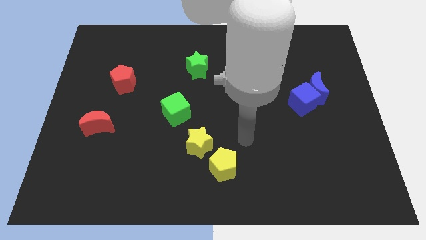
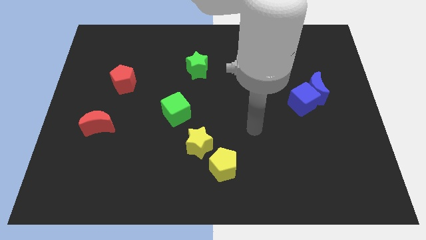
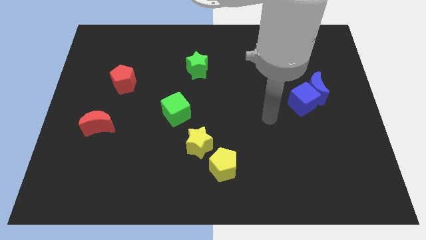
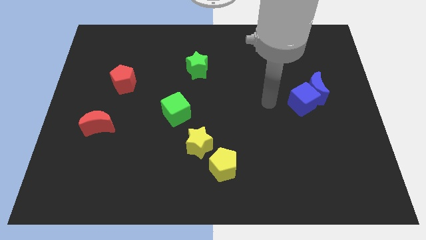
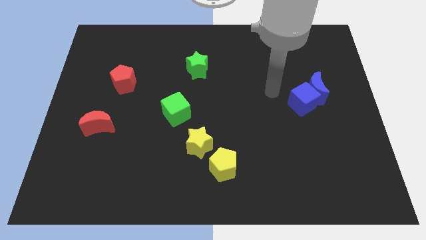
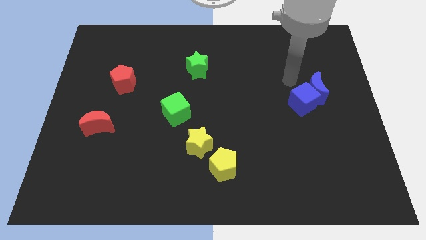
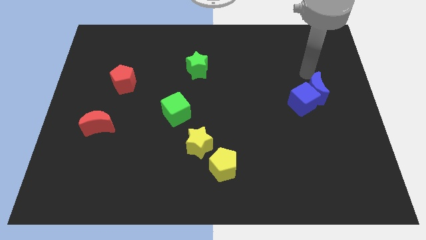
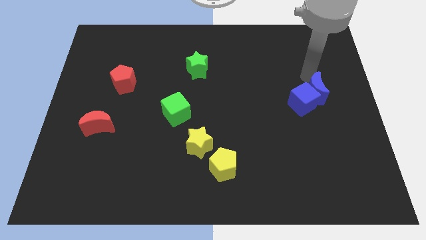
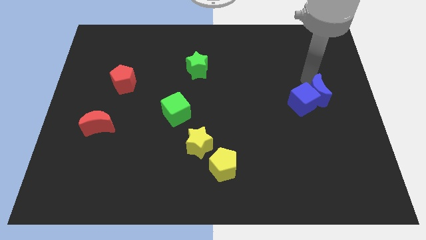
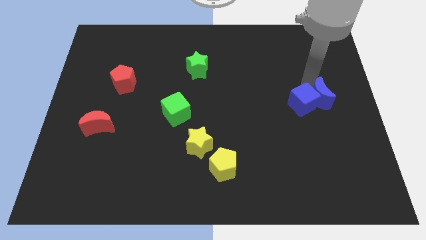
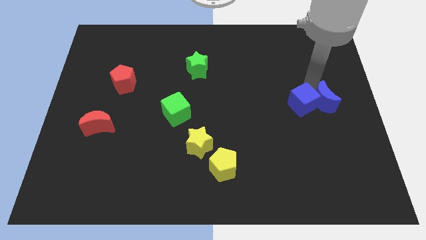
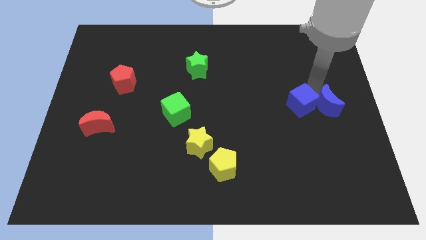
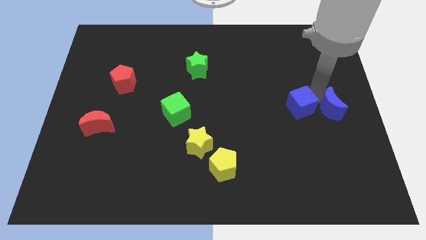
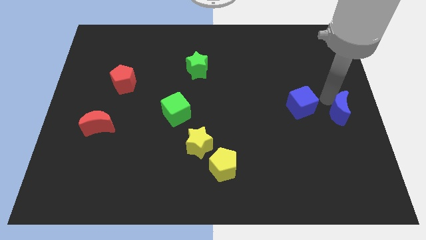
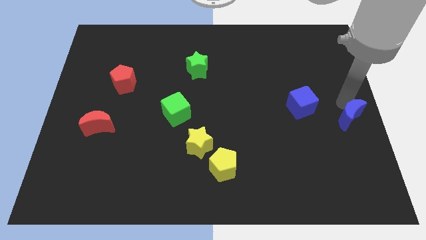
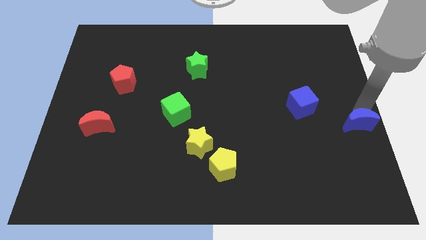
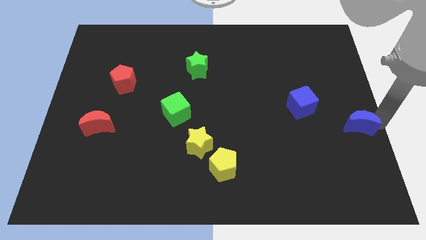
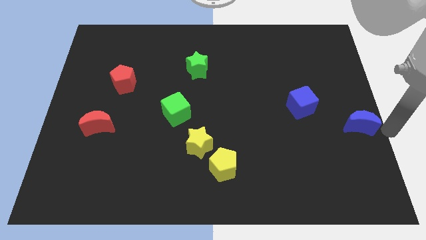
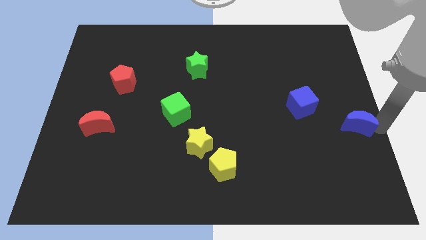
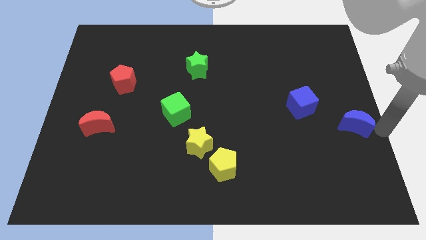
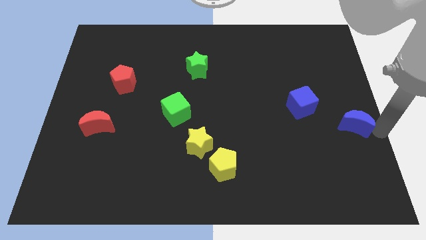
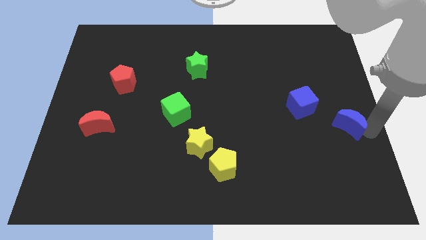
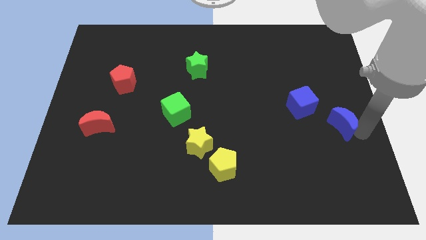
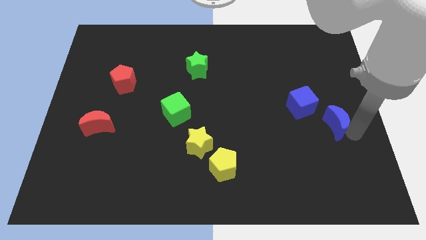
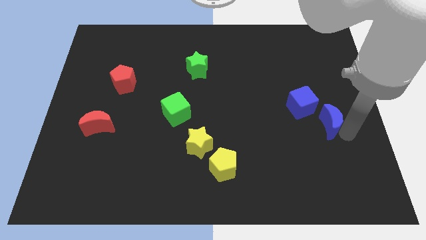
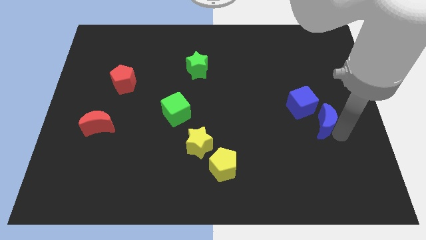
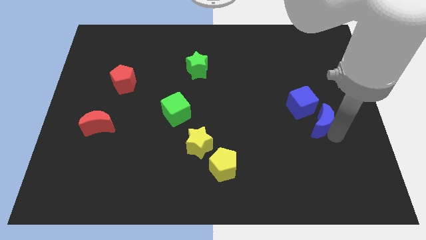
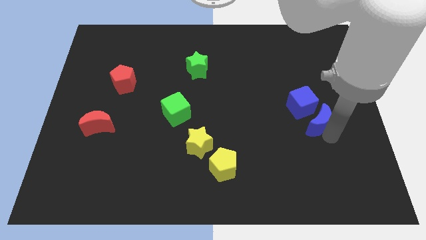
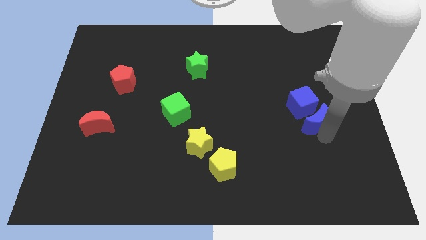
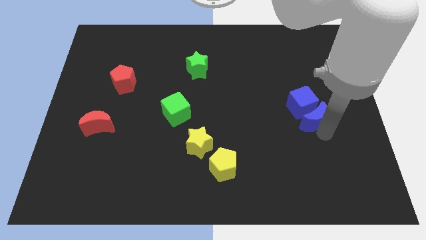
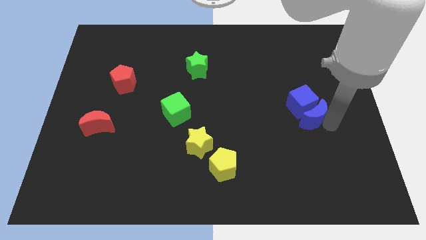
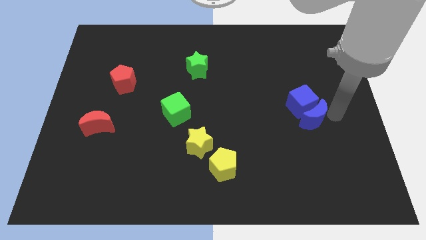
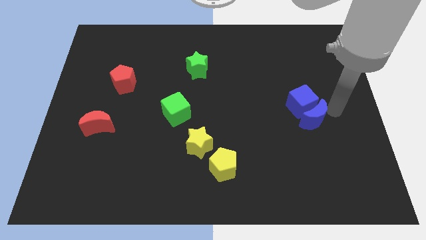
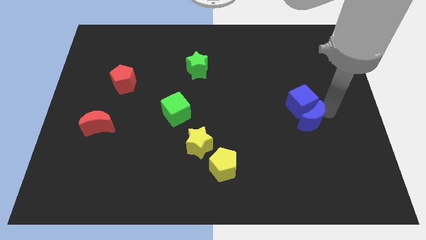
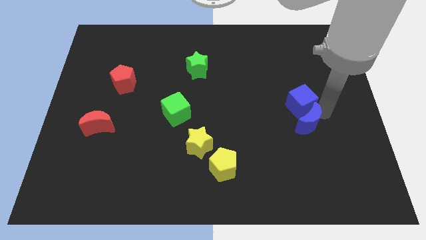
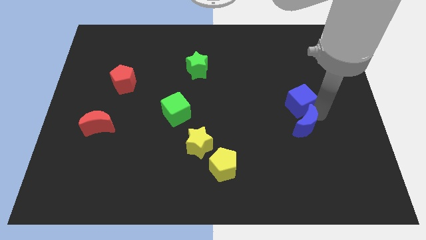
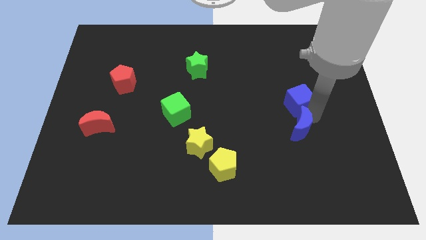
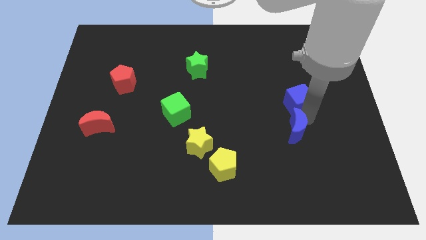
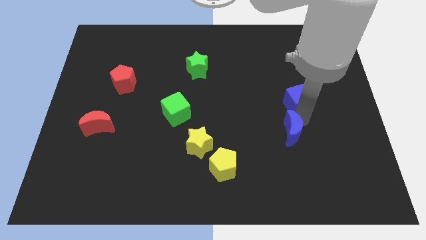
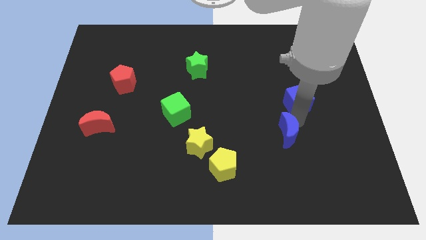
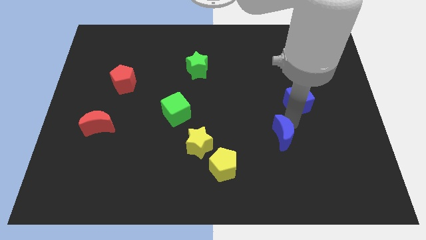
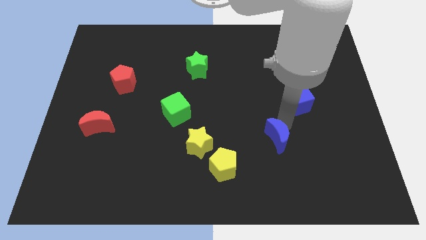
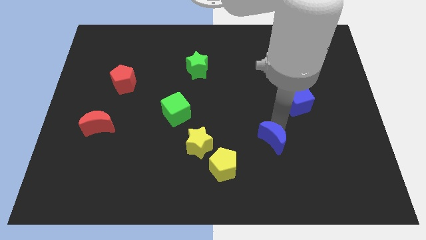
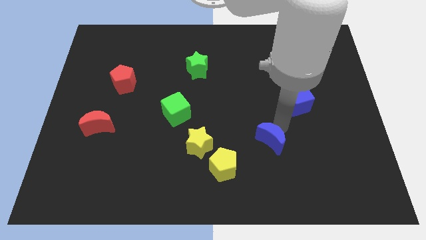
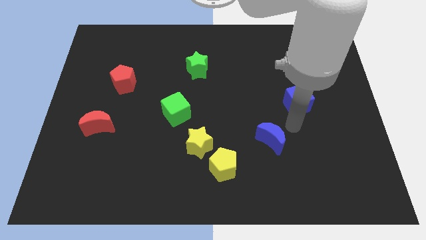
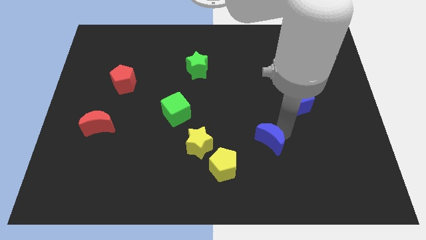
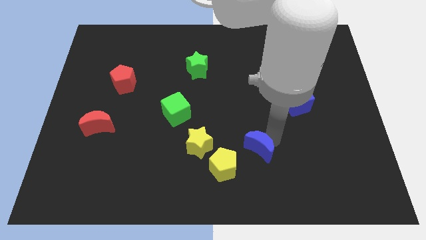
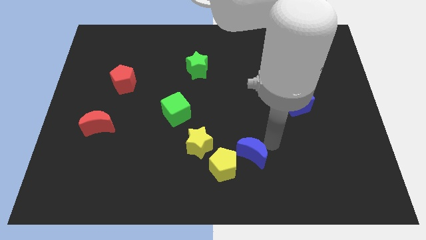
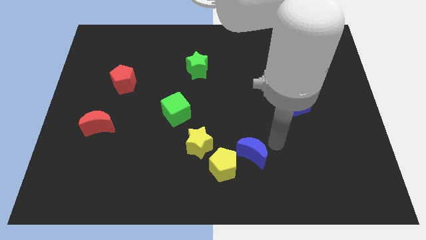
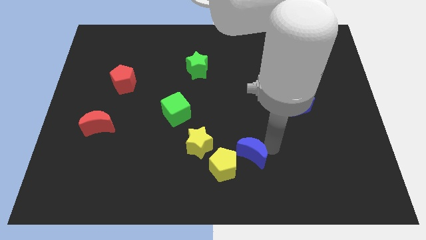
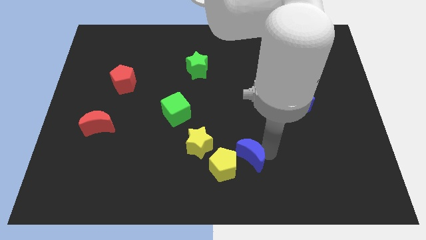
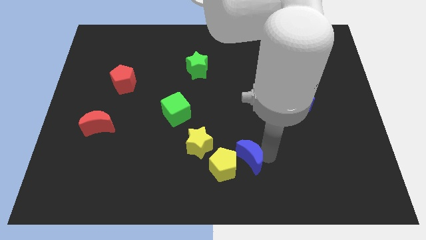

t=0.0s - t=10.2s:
put the blue moon to the yellow pentagon

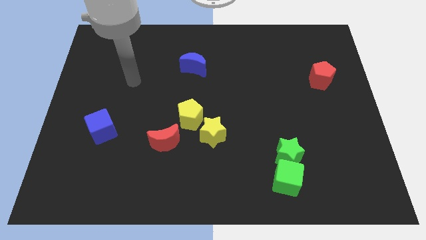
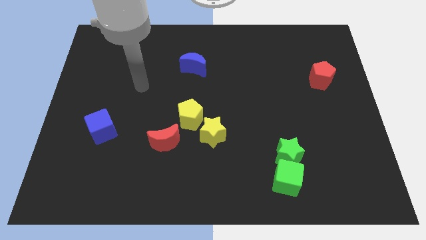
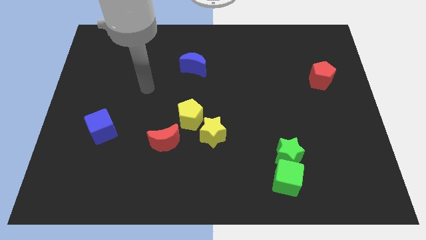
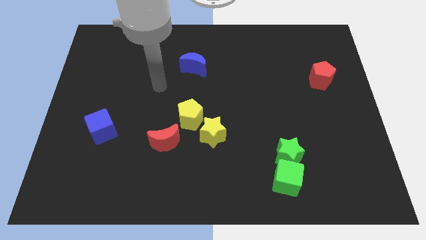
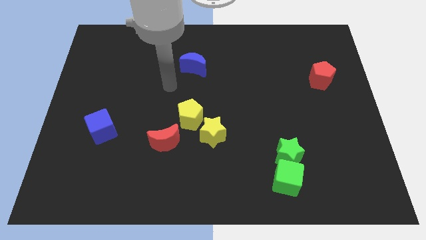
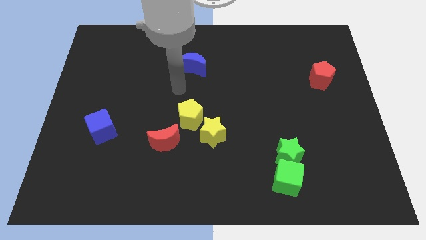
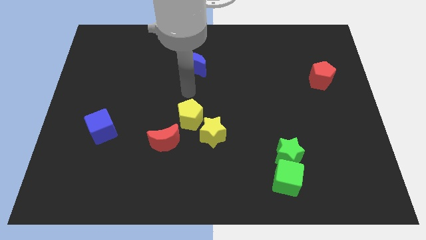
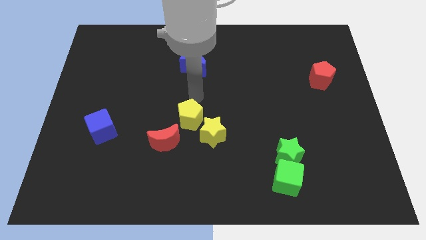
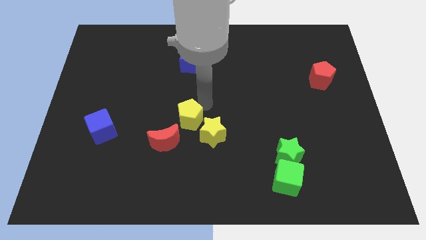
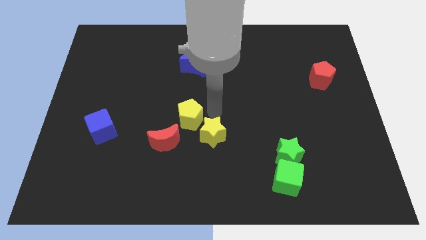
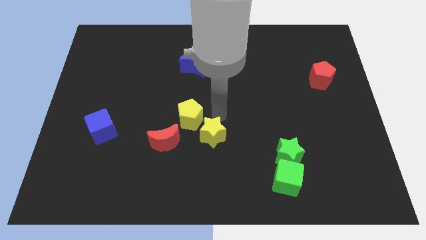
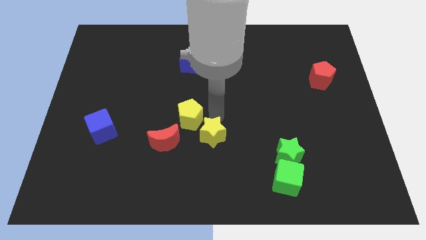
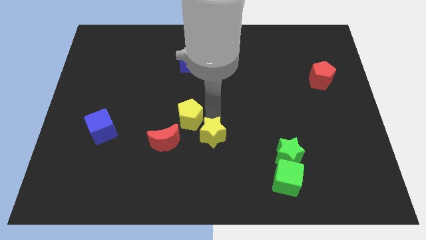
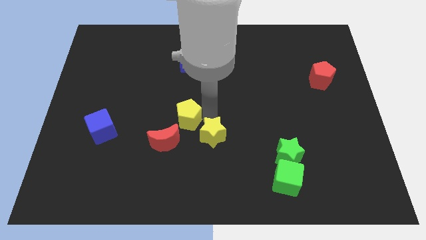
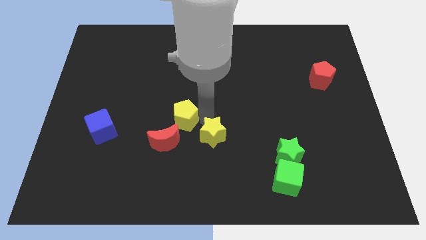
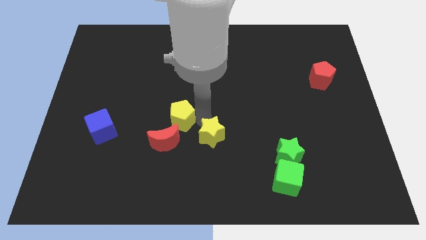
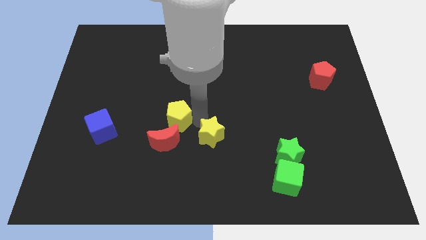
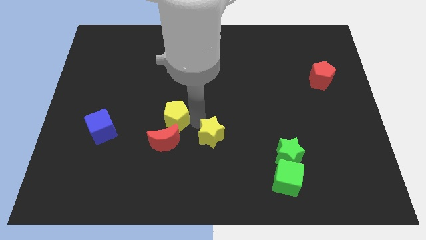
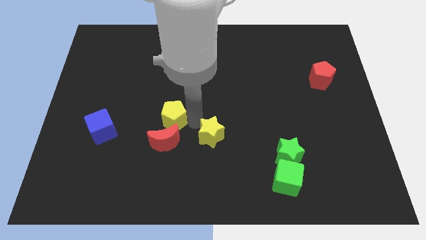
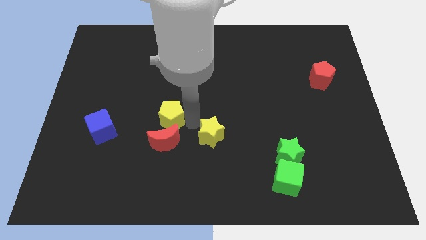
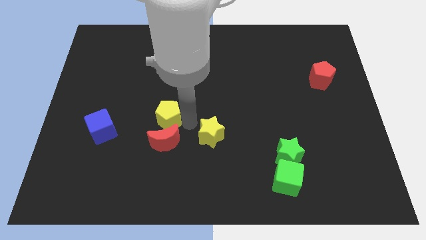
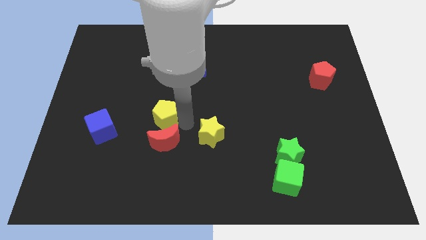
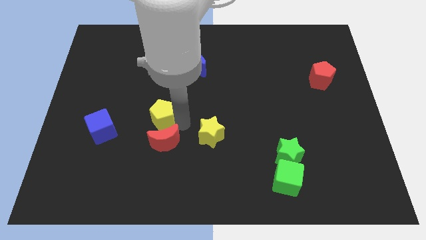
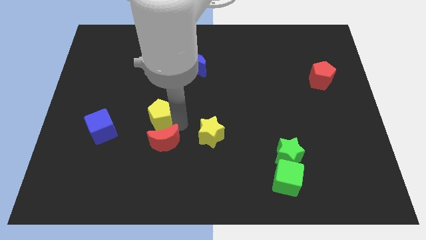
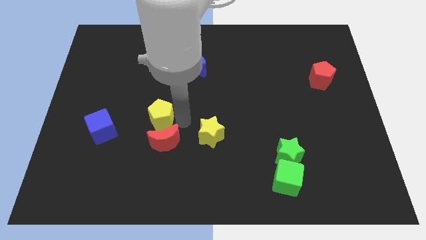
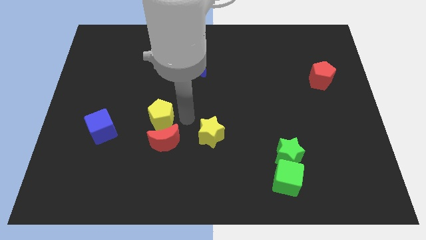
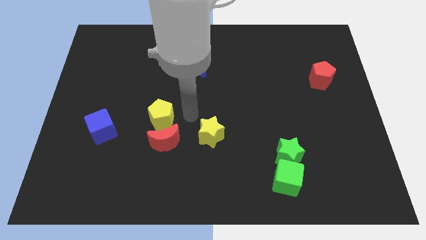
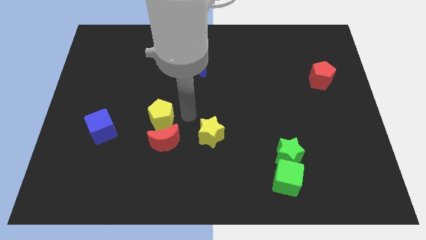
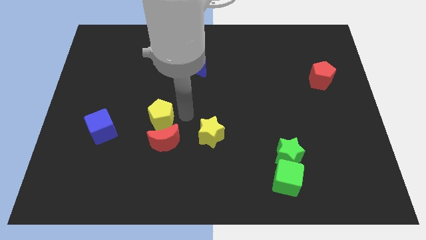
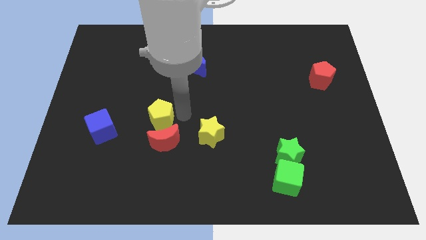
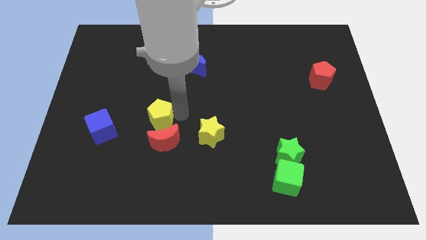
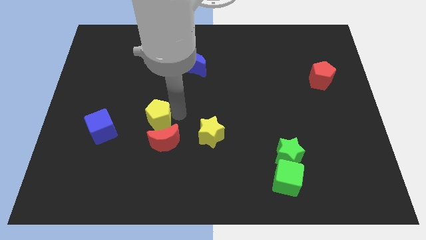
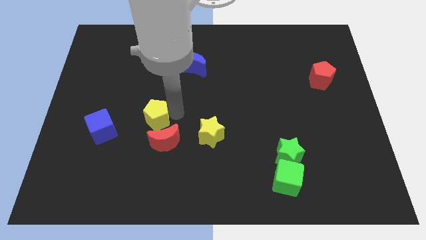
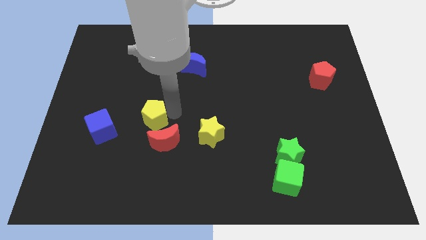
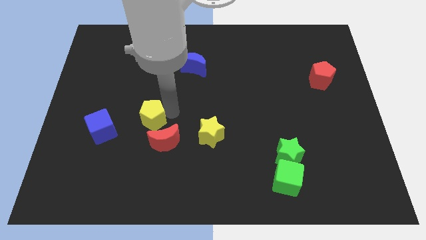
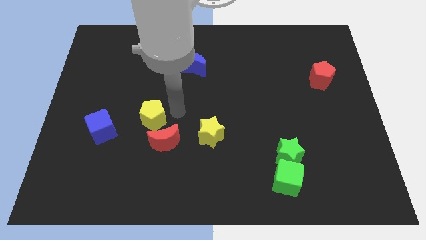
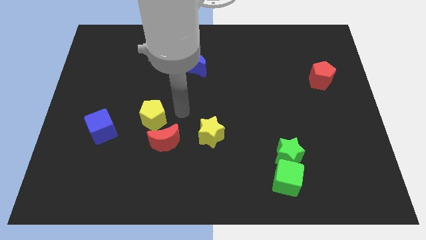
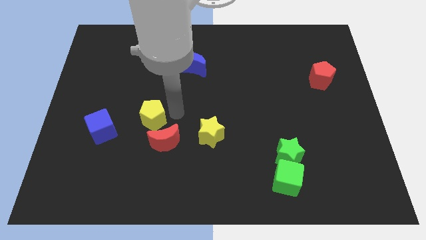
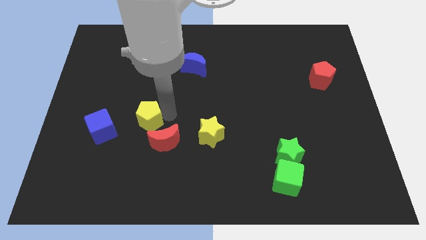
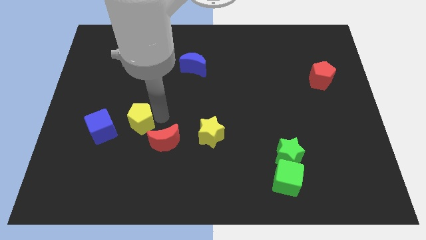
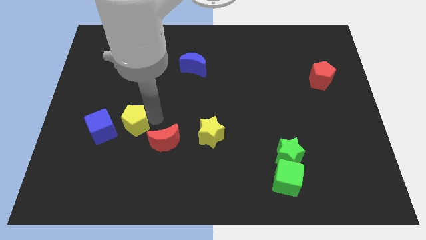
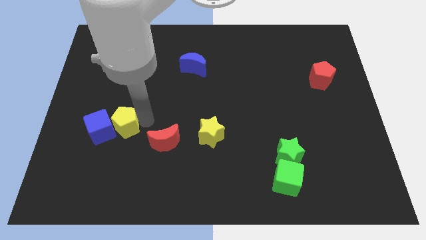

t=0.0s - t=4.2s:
move the yellow pentagon to the blue cube
